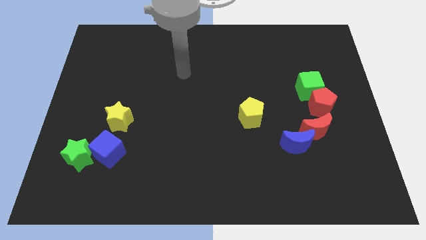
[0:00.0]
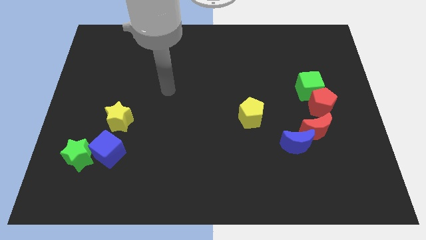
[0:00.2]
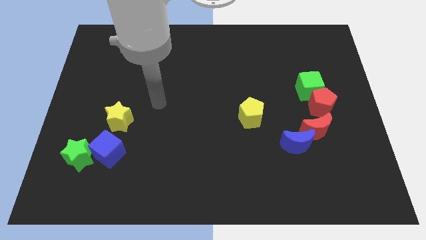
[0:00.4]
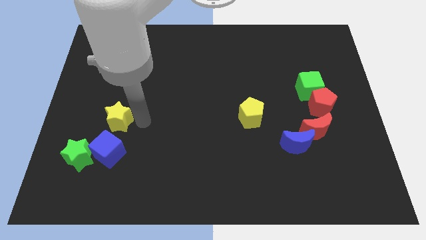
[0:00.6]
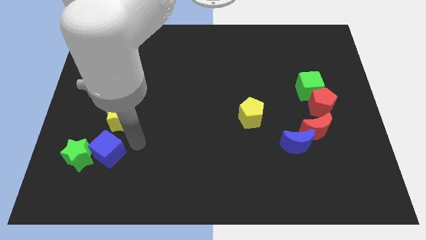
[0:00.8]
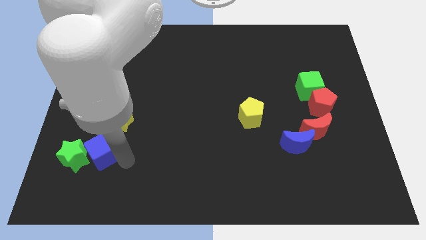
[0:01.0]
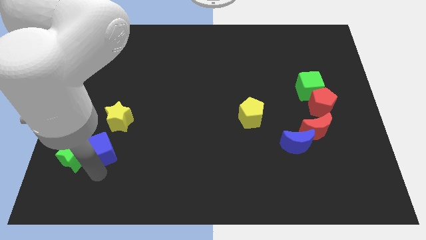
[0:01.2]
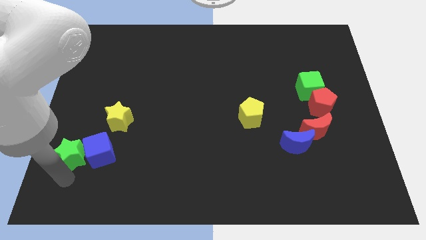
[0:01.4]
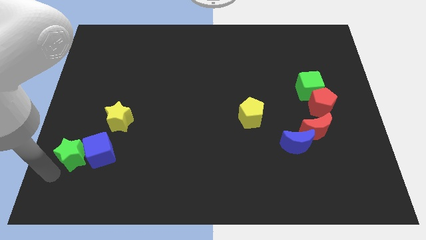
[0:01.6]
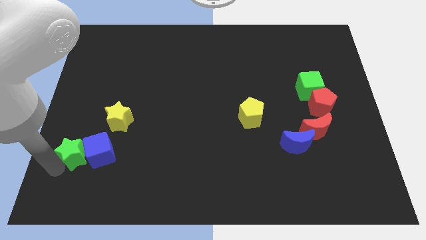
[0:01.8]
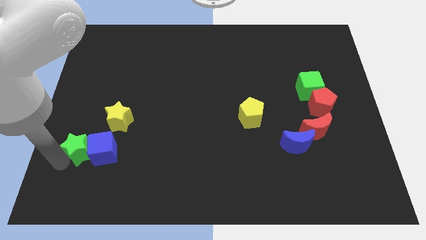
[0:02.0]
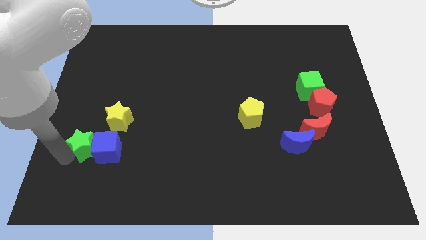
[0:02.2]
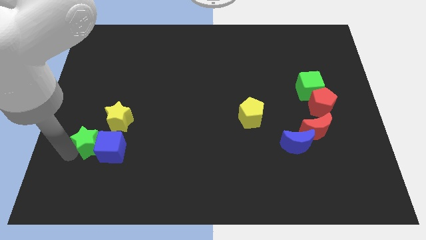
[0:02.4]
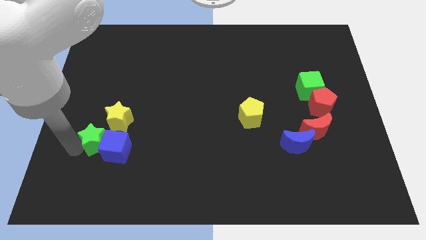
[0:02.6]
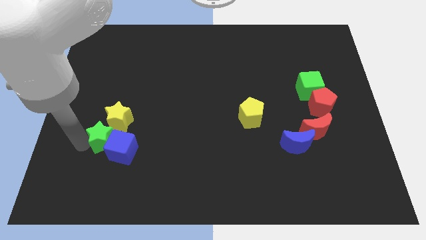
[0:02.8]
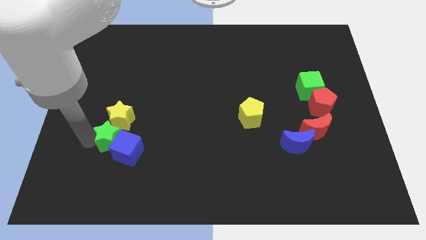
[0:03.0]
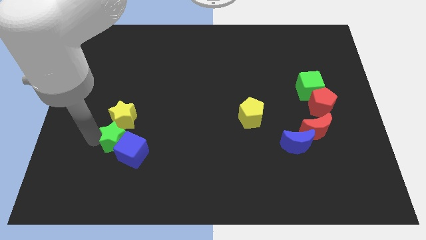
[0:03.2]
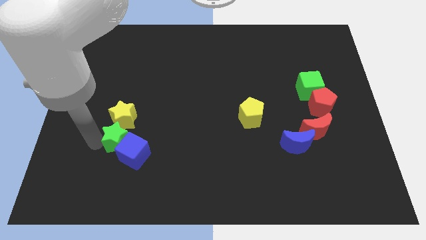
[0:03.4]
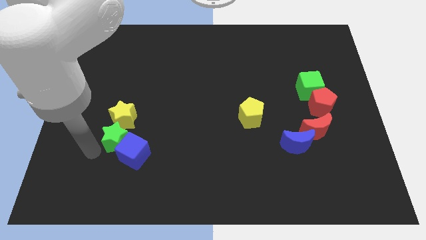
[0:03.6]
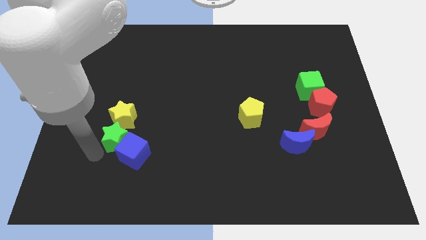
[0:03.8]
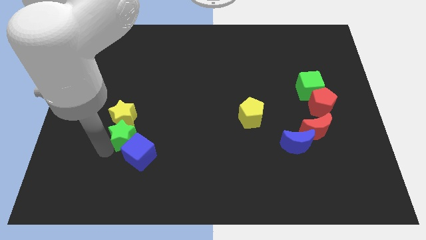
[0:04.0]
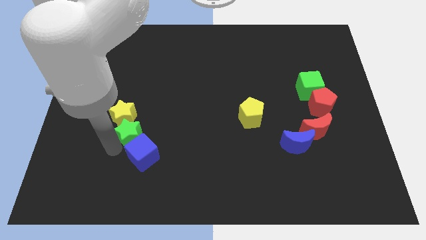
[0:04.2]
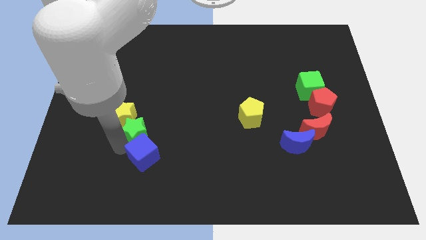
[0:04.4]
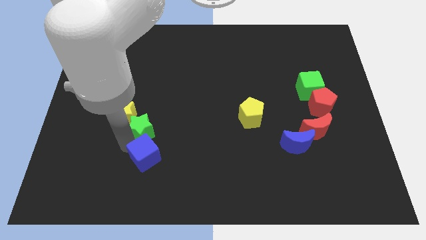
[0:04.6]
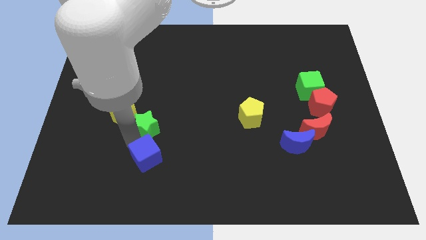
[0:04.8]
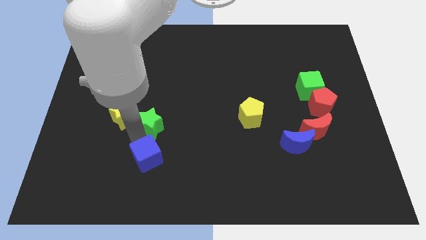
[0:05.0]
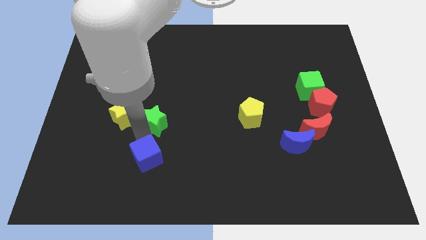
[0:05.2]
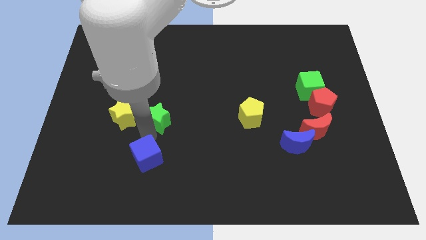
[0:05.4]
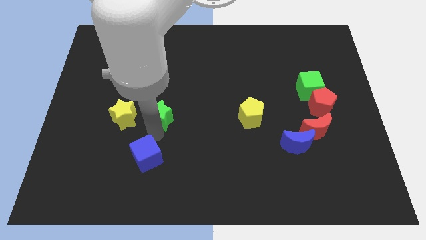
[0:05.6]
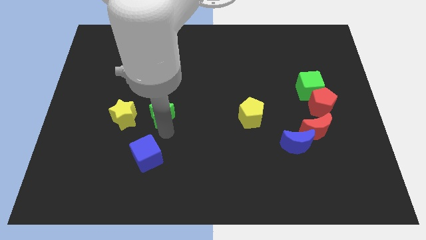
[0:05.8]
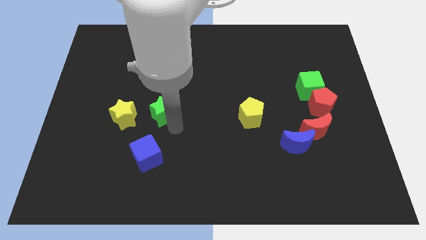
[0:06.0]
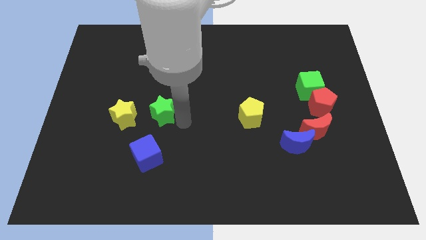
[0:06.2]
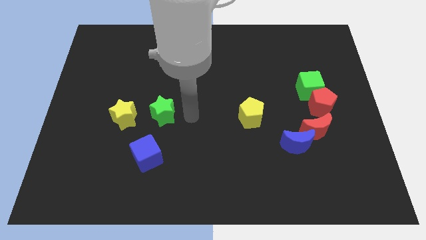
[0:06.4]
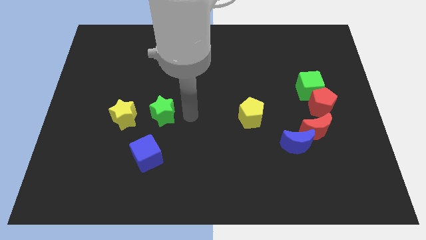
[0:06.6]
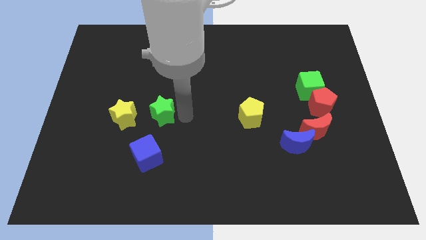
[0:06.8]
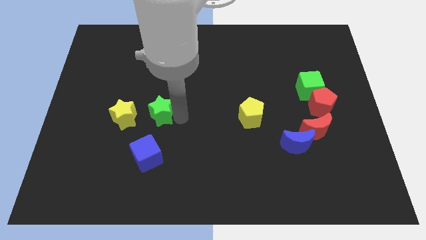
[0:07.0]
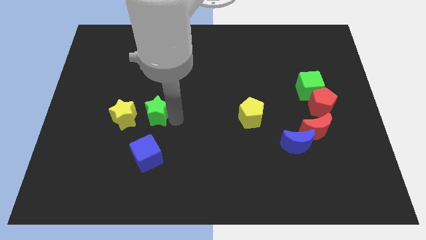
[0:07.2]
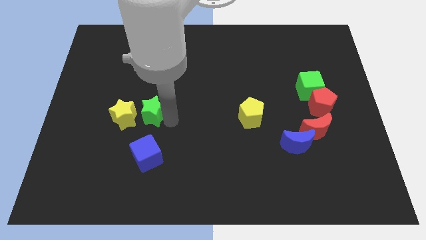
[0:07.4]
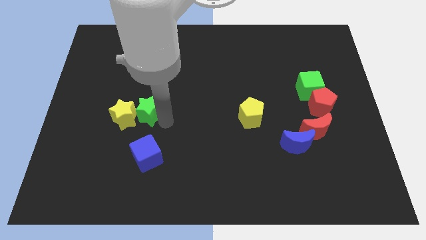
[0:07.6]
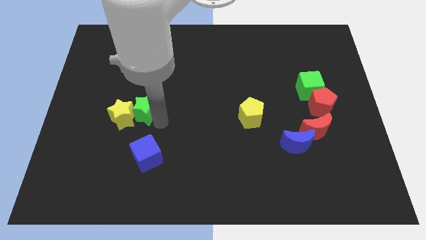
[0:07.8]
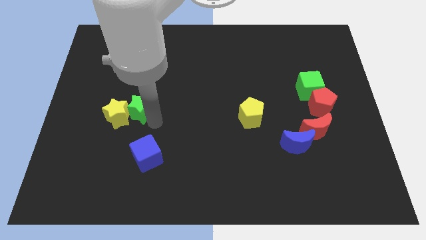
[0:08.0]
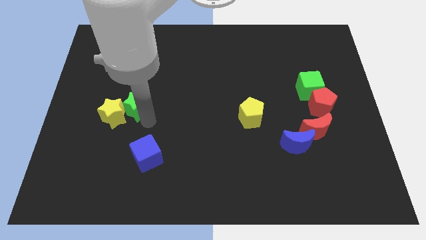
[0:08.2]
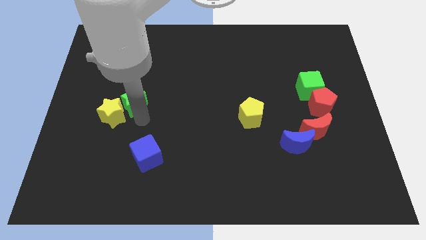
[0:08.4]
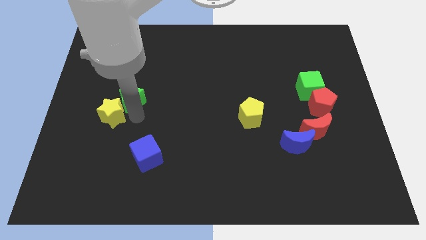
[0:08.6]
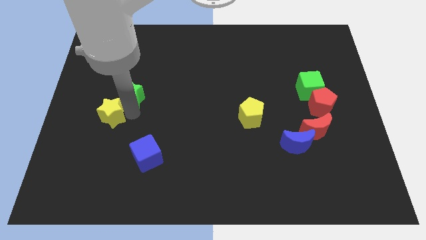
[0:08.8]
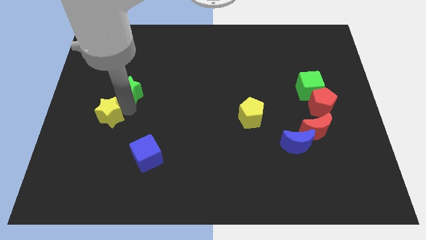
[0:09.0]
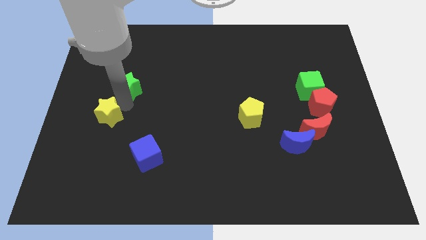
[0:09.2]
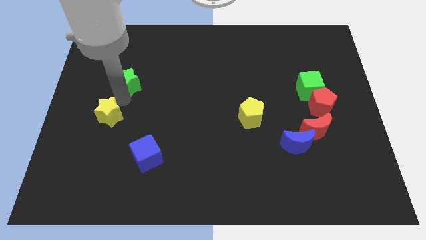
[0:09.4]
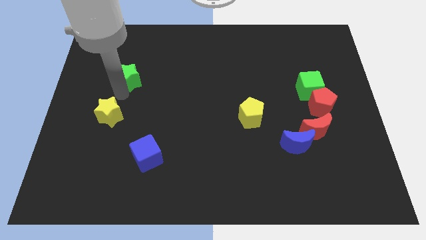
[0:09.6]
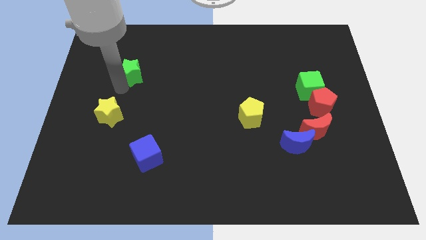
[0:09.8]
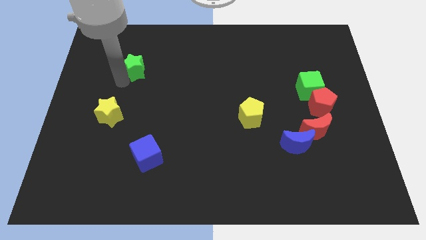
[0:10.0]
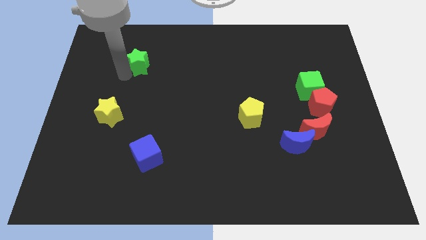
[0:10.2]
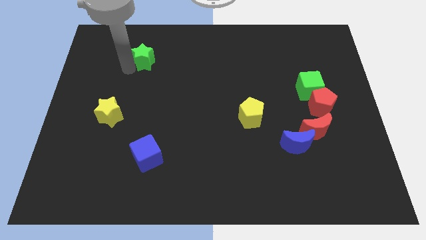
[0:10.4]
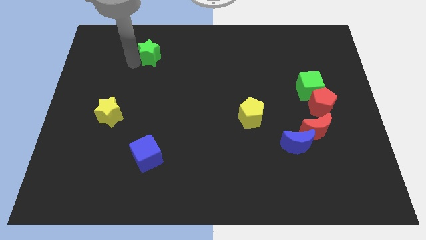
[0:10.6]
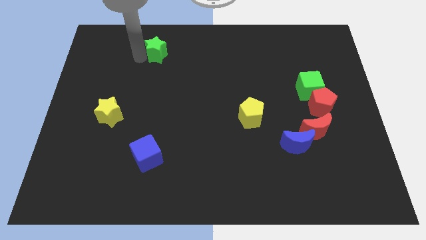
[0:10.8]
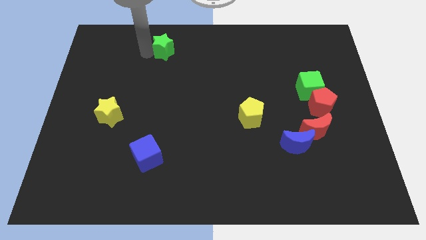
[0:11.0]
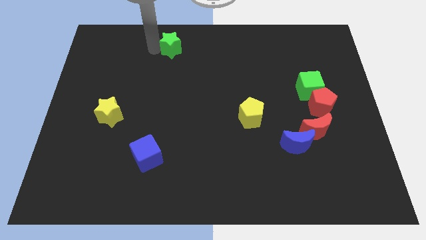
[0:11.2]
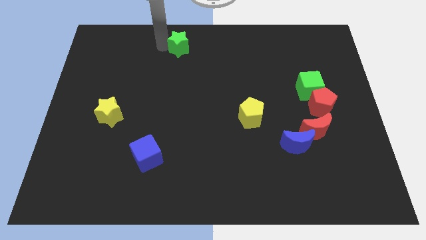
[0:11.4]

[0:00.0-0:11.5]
put the green star to the towards your base

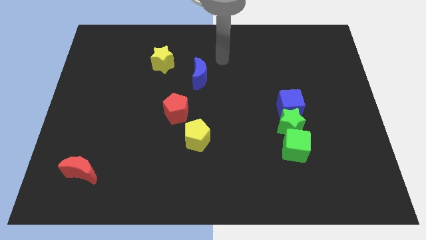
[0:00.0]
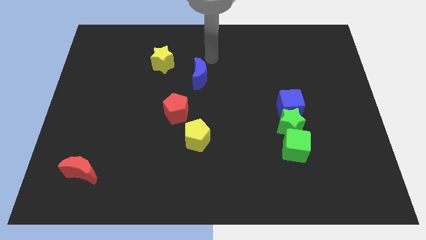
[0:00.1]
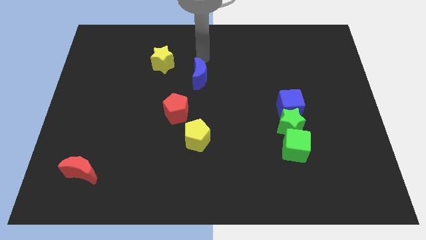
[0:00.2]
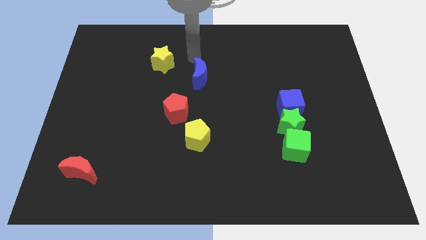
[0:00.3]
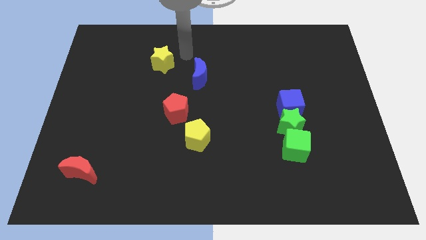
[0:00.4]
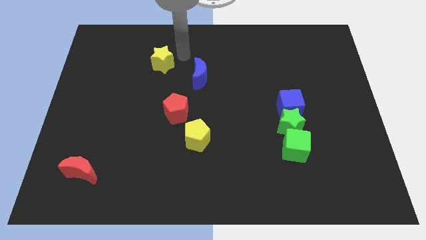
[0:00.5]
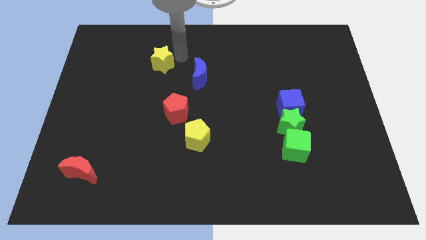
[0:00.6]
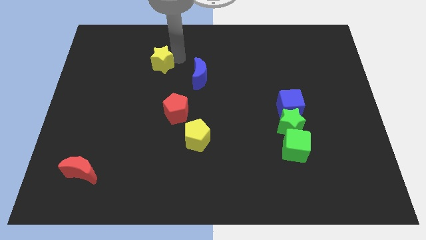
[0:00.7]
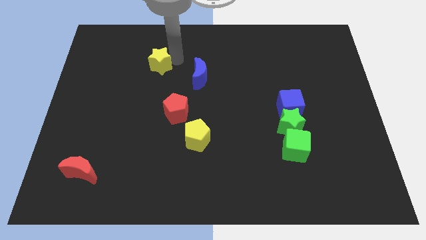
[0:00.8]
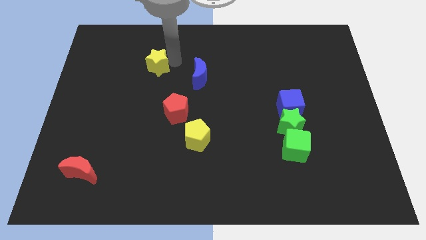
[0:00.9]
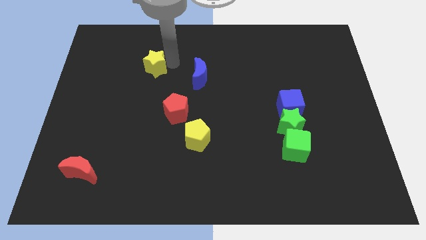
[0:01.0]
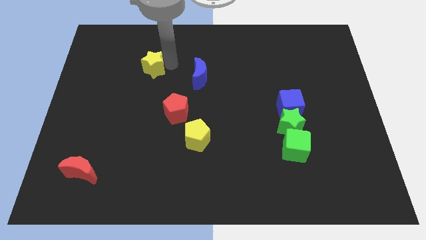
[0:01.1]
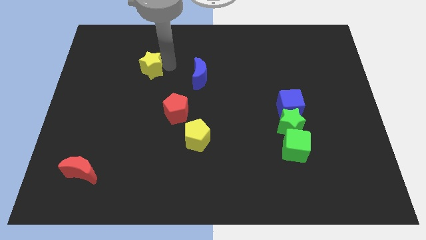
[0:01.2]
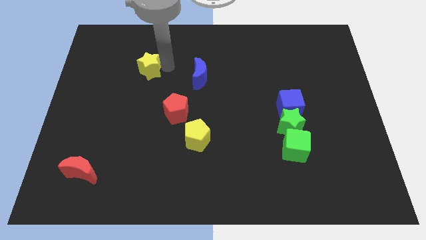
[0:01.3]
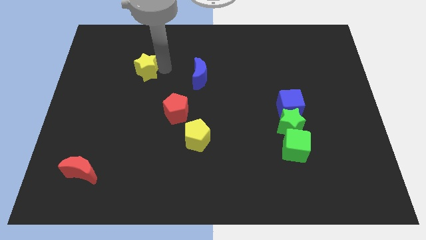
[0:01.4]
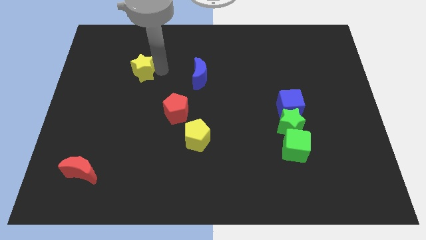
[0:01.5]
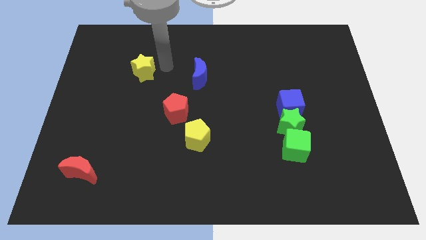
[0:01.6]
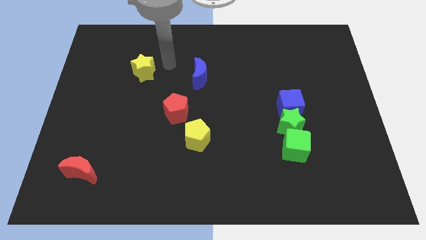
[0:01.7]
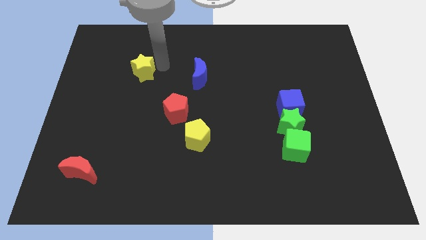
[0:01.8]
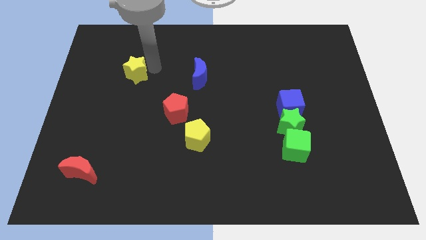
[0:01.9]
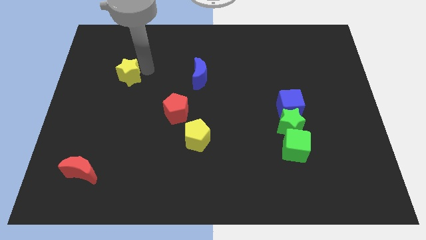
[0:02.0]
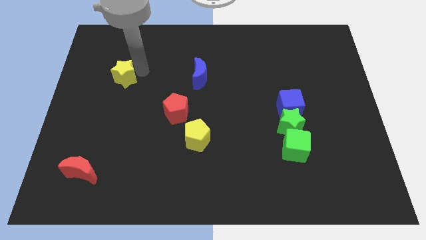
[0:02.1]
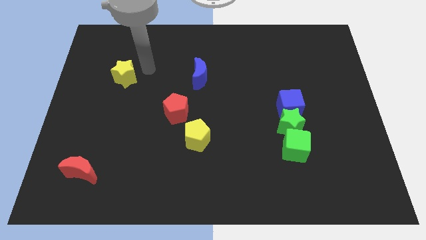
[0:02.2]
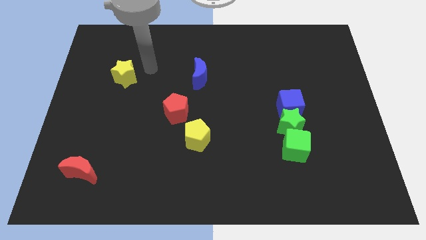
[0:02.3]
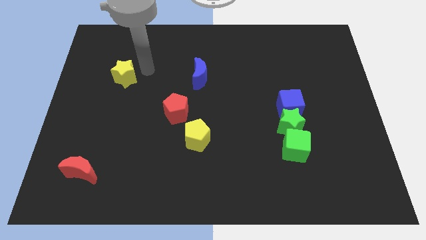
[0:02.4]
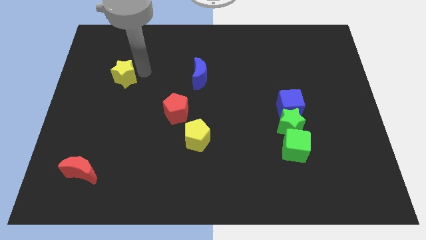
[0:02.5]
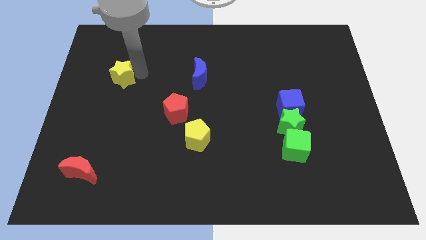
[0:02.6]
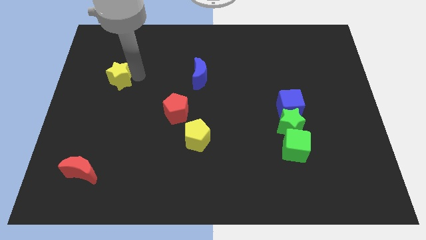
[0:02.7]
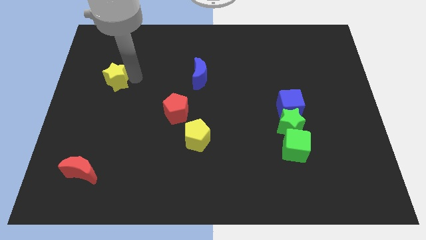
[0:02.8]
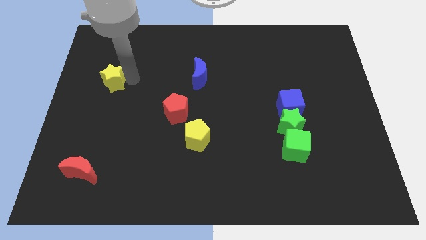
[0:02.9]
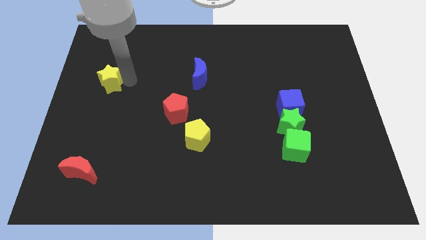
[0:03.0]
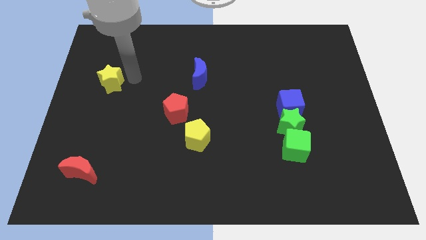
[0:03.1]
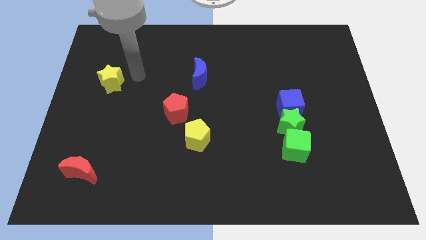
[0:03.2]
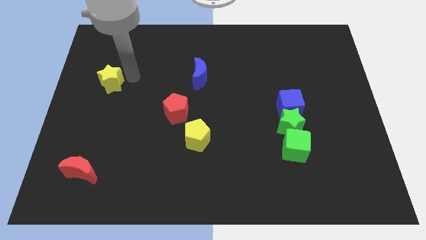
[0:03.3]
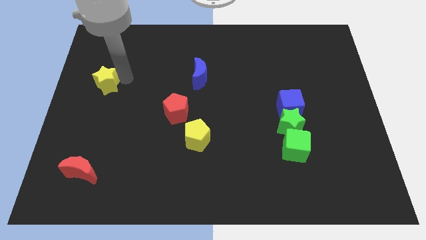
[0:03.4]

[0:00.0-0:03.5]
put the yellow star to the left side
